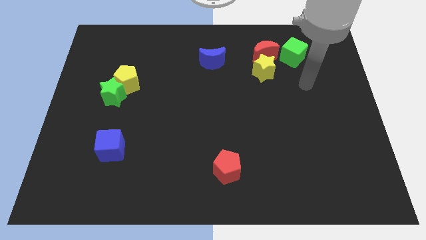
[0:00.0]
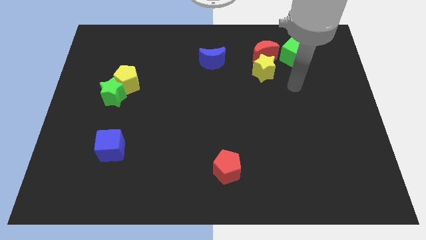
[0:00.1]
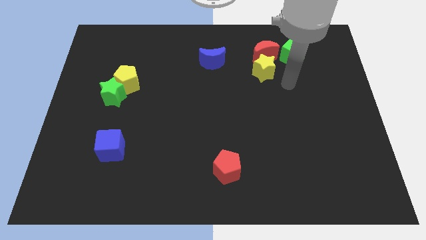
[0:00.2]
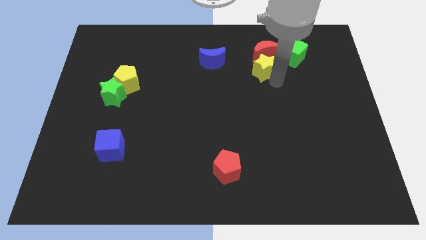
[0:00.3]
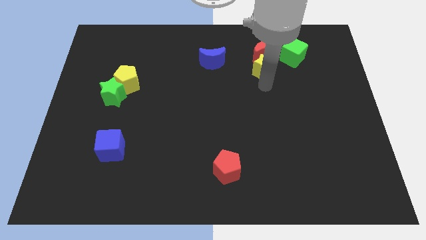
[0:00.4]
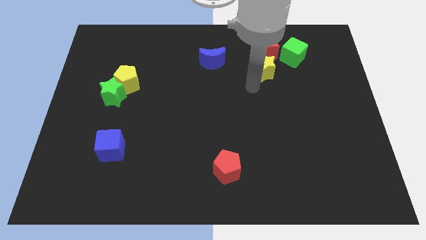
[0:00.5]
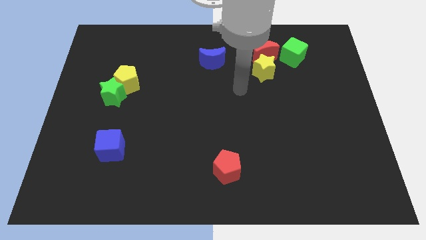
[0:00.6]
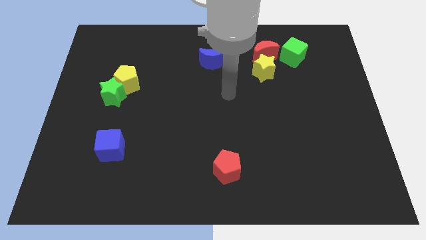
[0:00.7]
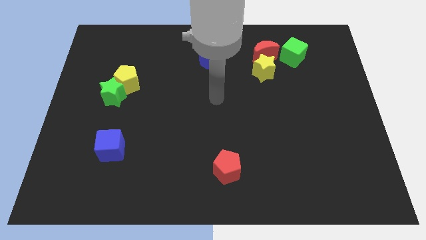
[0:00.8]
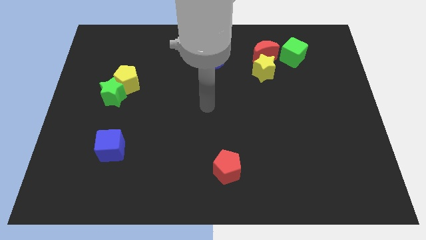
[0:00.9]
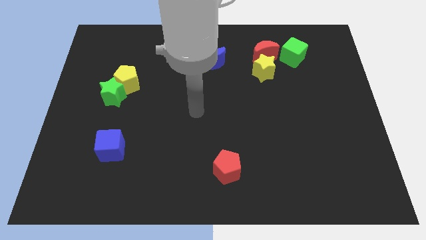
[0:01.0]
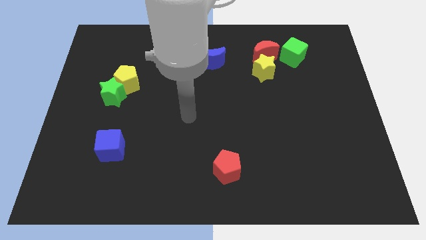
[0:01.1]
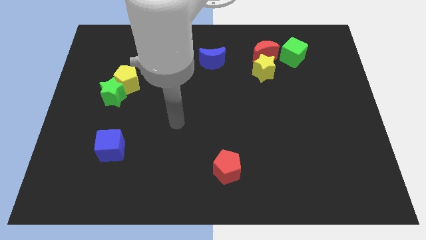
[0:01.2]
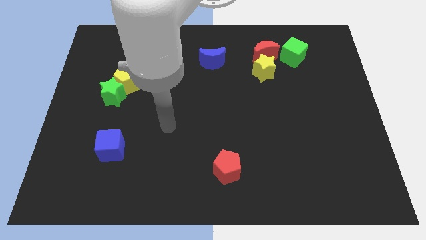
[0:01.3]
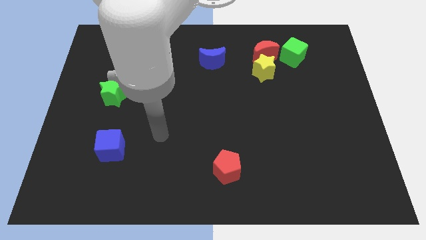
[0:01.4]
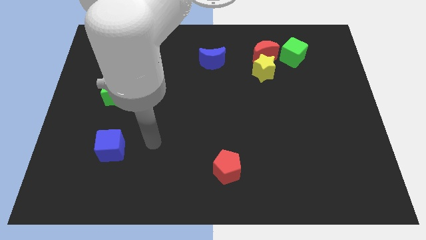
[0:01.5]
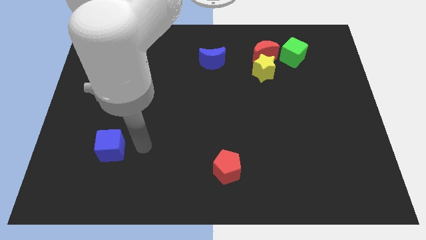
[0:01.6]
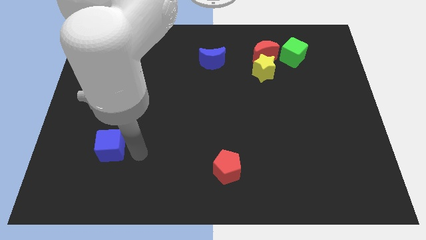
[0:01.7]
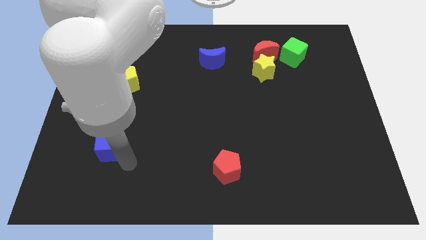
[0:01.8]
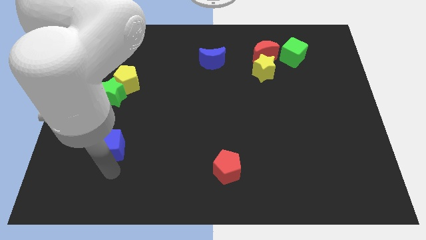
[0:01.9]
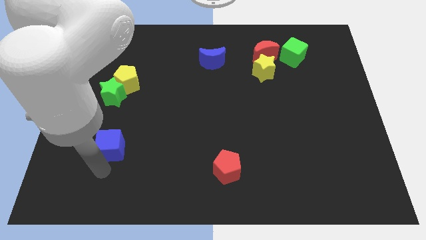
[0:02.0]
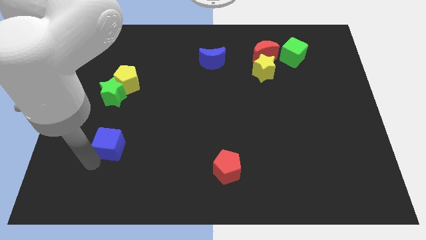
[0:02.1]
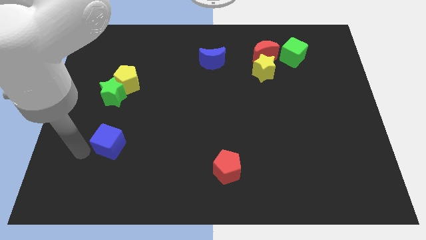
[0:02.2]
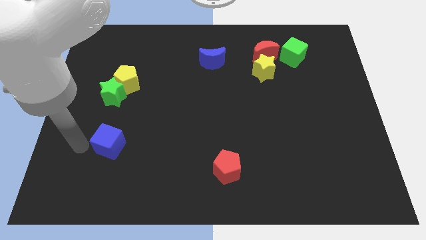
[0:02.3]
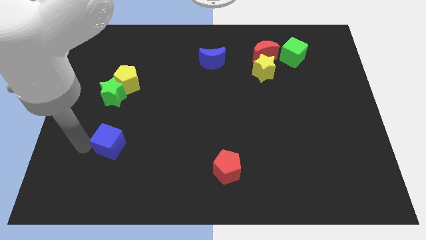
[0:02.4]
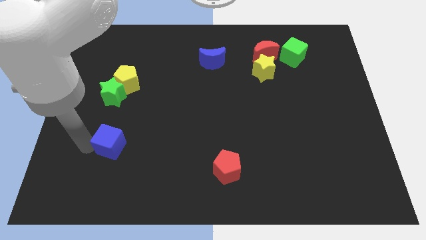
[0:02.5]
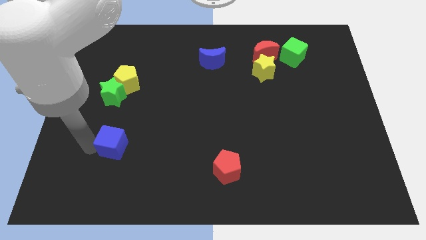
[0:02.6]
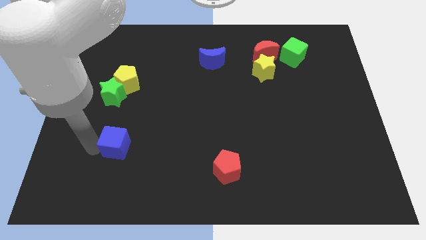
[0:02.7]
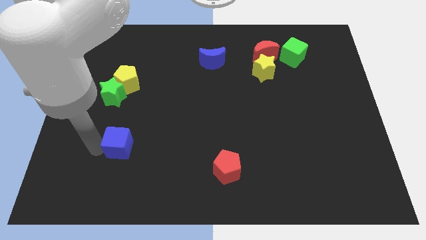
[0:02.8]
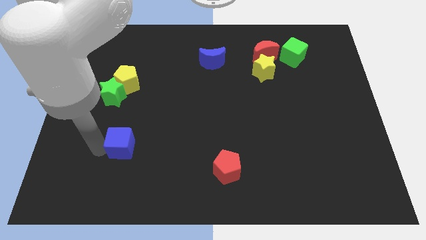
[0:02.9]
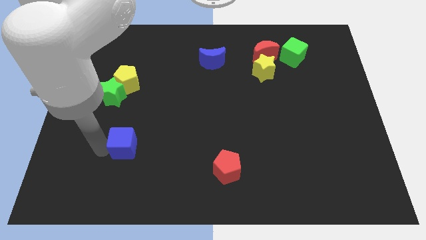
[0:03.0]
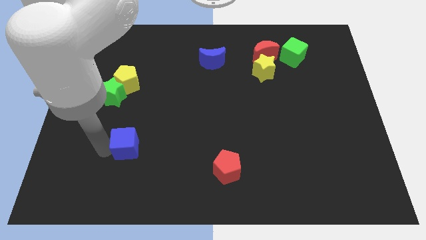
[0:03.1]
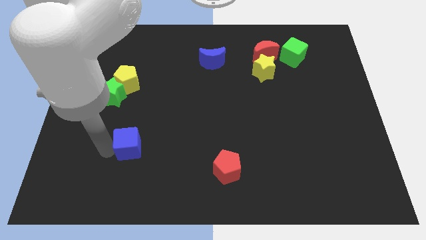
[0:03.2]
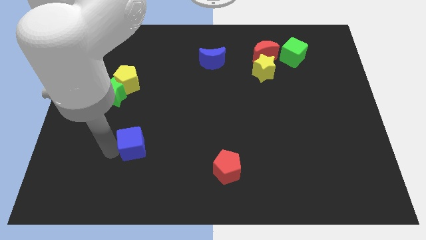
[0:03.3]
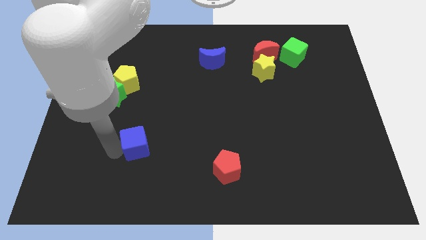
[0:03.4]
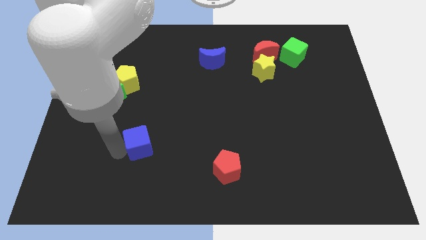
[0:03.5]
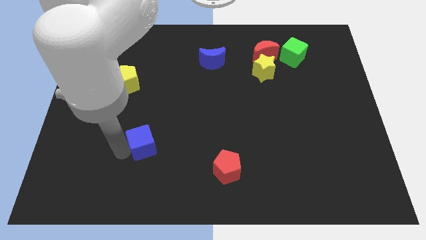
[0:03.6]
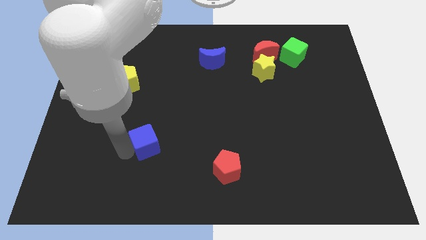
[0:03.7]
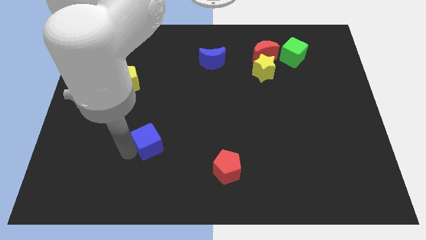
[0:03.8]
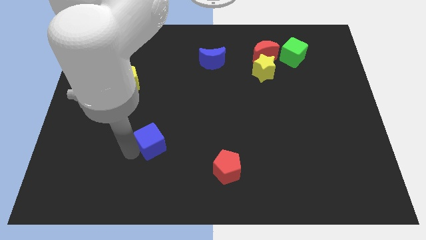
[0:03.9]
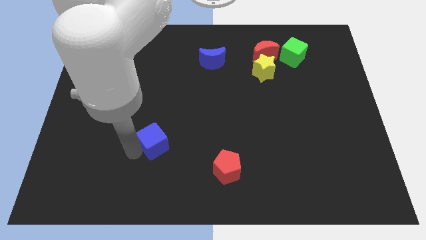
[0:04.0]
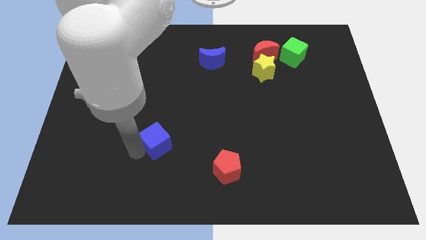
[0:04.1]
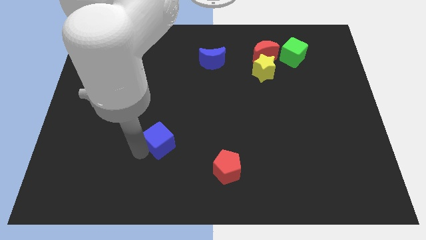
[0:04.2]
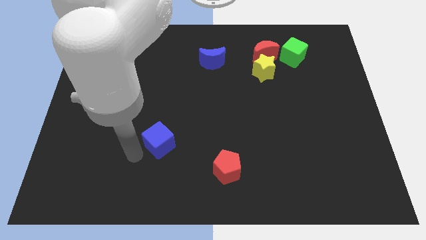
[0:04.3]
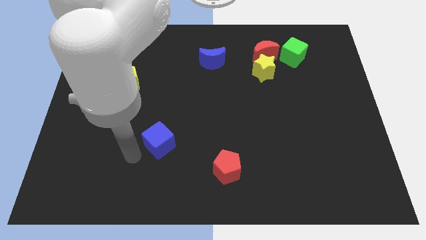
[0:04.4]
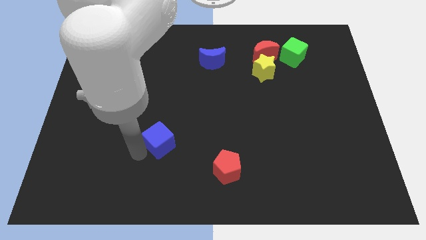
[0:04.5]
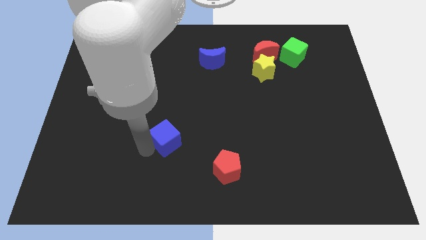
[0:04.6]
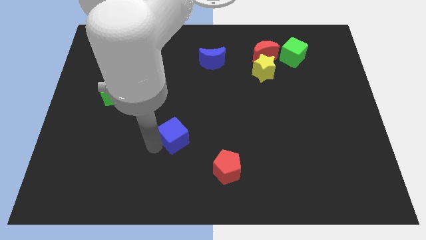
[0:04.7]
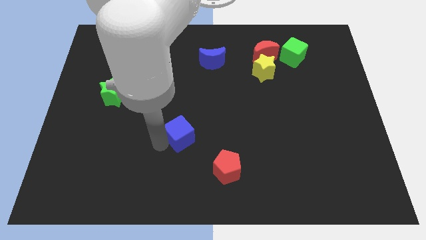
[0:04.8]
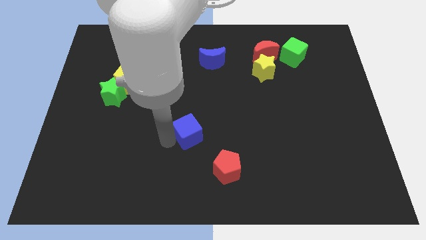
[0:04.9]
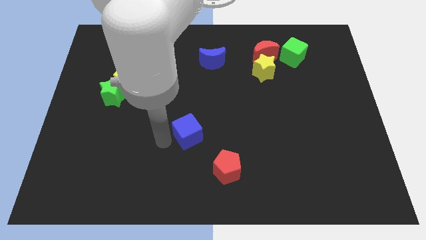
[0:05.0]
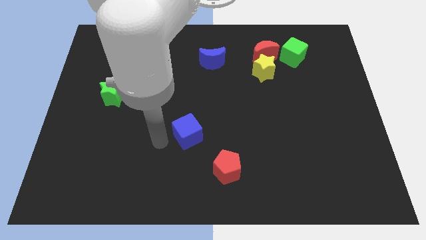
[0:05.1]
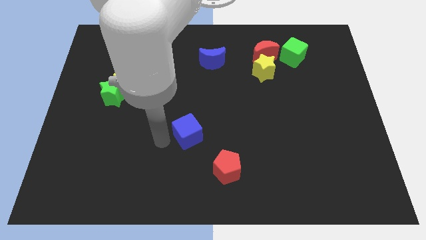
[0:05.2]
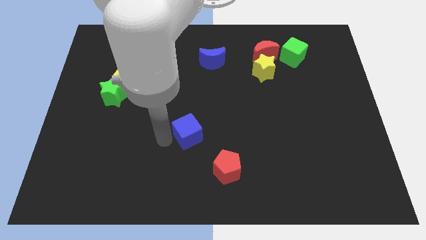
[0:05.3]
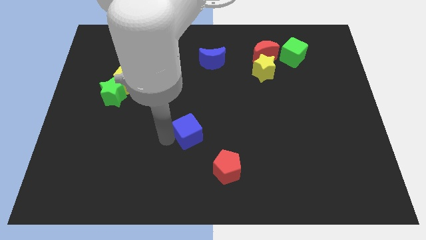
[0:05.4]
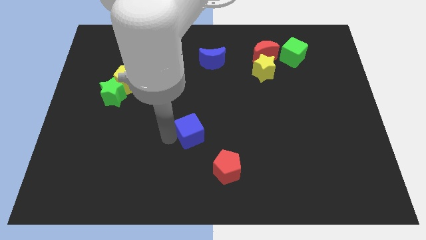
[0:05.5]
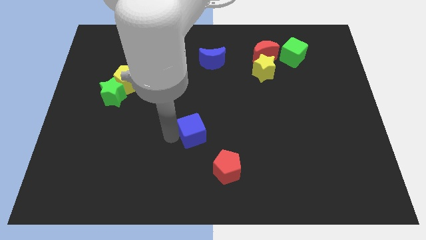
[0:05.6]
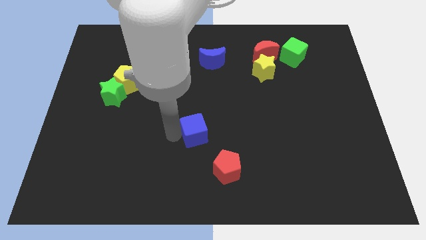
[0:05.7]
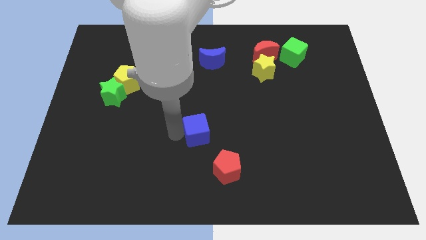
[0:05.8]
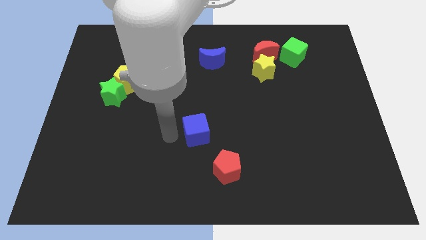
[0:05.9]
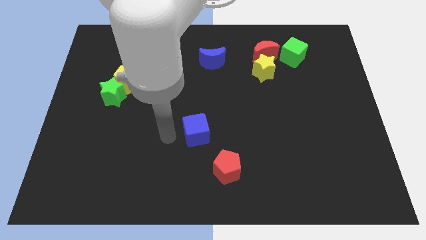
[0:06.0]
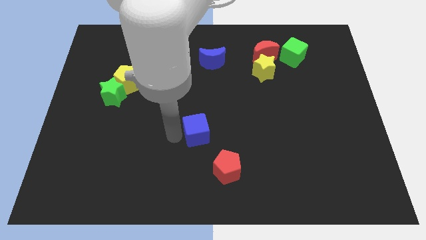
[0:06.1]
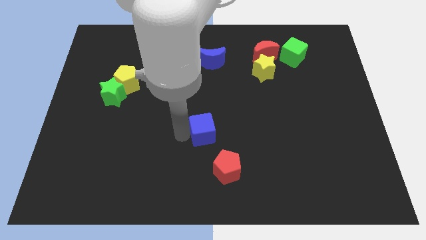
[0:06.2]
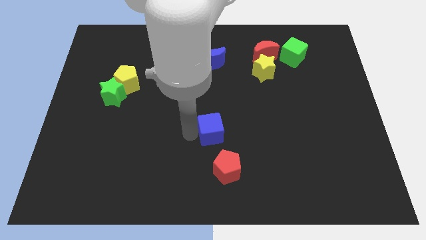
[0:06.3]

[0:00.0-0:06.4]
move the blue cube to the top of the red pentagon
